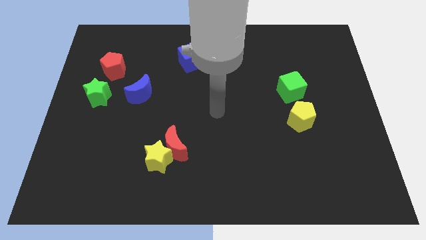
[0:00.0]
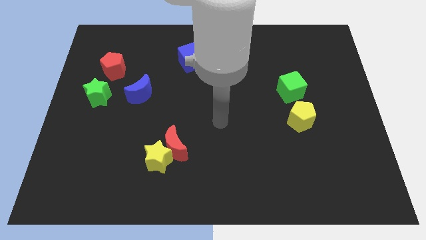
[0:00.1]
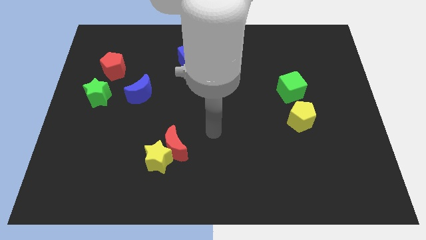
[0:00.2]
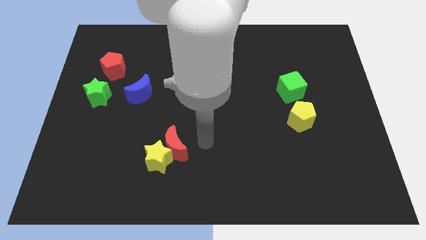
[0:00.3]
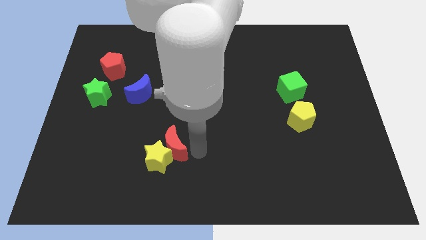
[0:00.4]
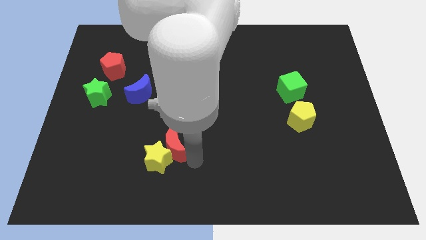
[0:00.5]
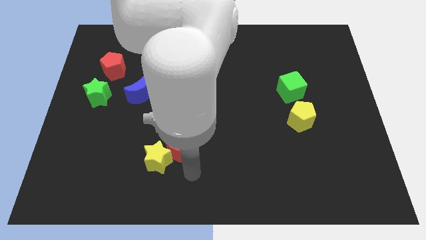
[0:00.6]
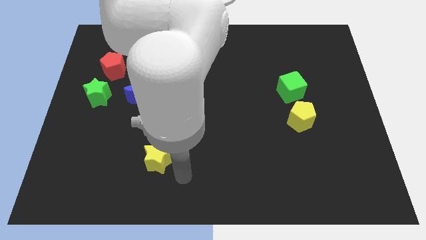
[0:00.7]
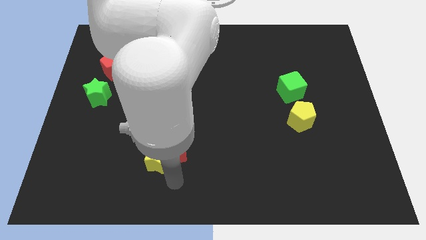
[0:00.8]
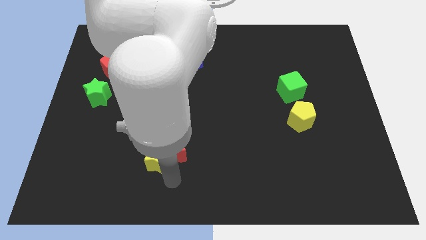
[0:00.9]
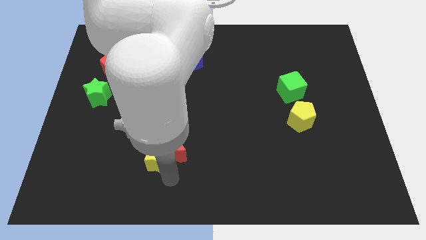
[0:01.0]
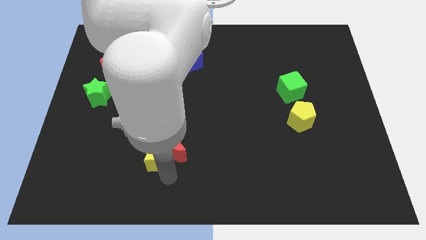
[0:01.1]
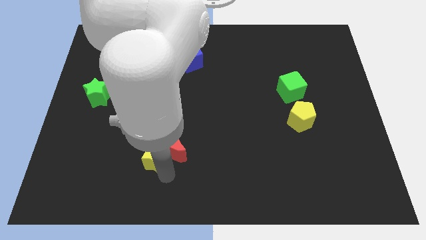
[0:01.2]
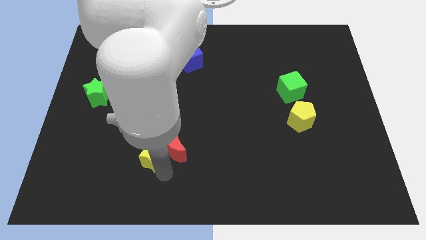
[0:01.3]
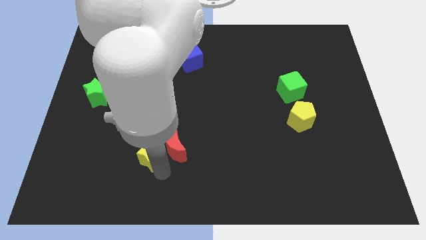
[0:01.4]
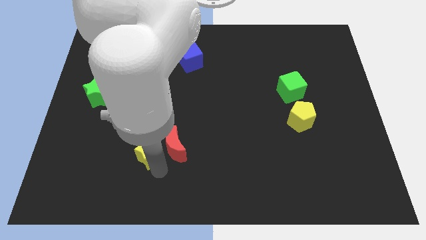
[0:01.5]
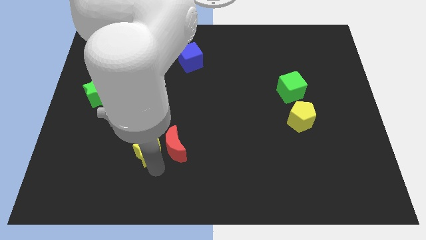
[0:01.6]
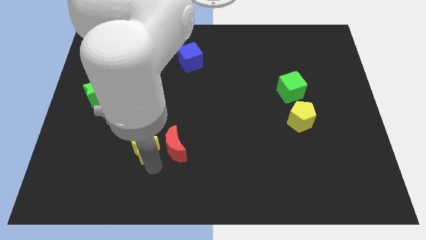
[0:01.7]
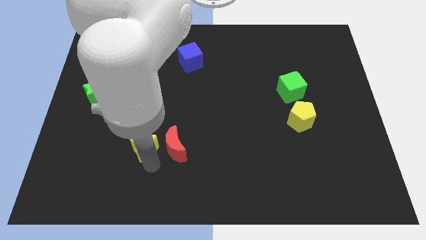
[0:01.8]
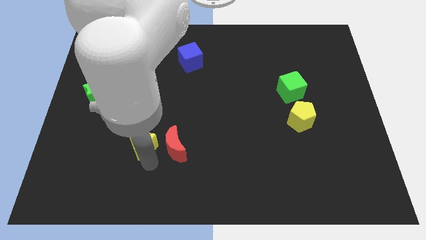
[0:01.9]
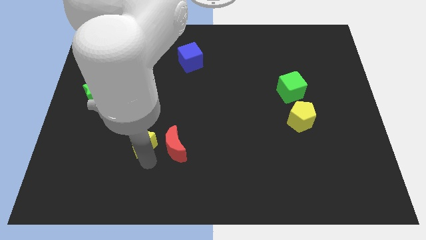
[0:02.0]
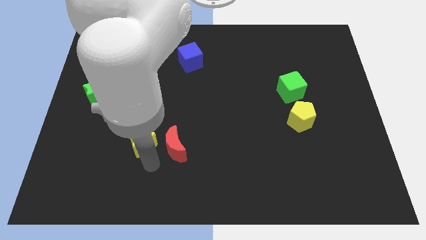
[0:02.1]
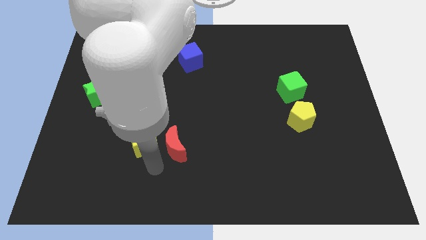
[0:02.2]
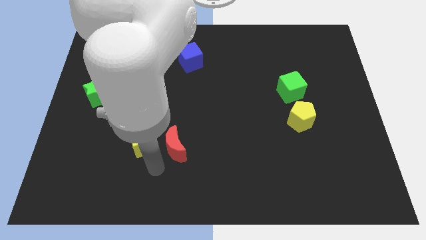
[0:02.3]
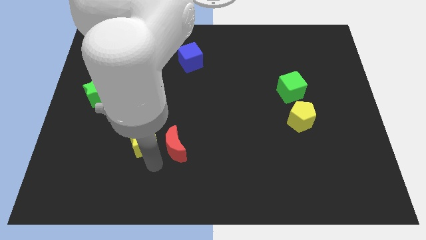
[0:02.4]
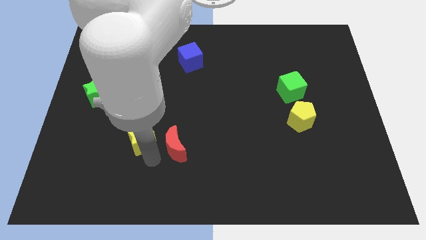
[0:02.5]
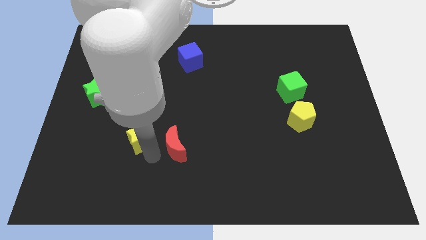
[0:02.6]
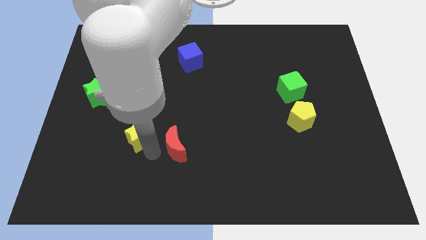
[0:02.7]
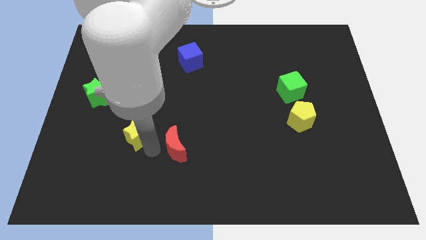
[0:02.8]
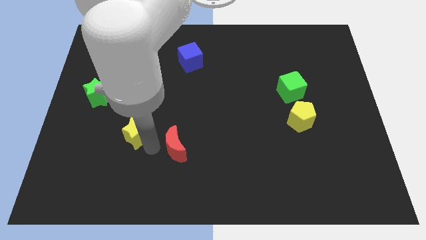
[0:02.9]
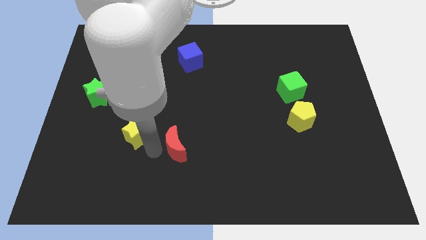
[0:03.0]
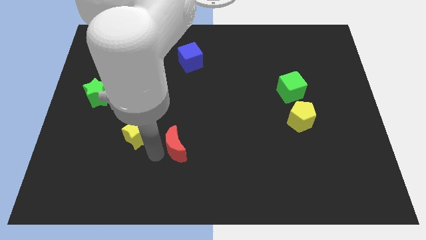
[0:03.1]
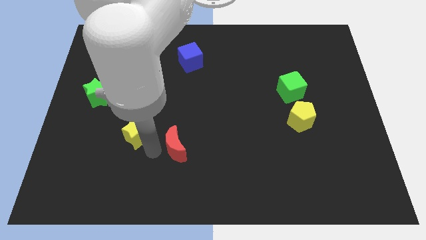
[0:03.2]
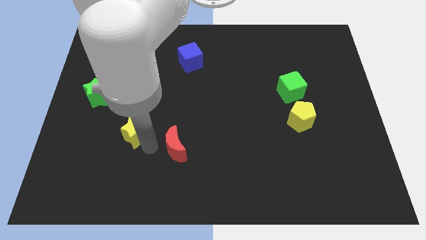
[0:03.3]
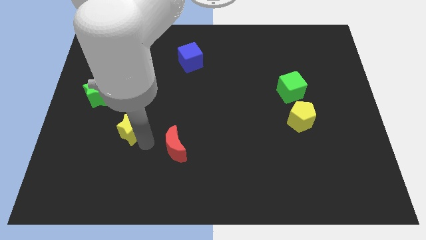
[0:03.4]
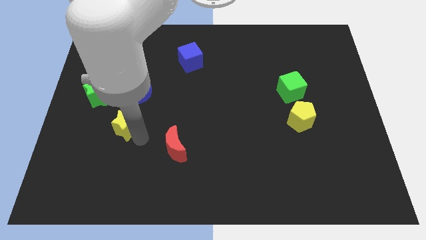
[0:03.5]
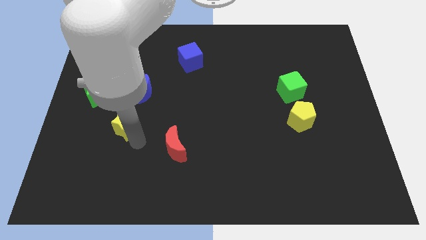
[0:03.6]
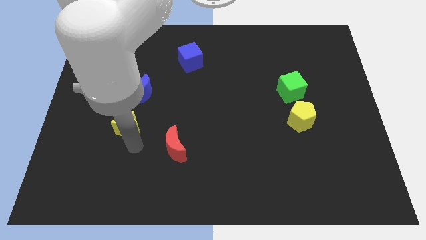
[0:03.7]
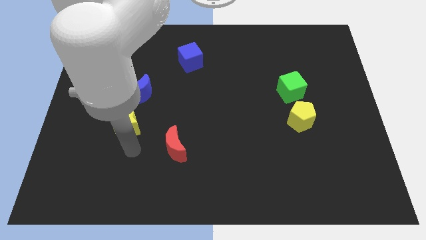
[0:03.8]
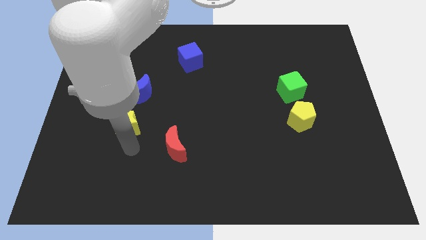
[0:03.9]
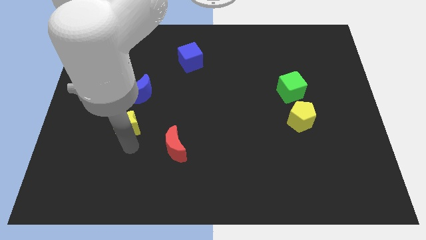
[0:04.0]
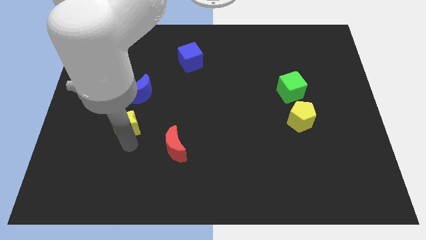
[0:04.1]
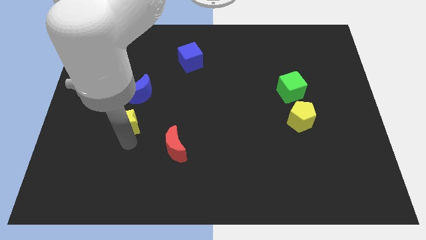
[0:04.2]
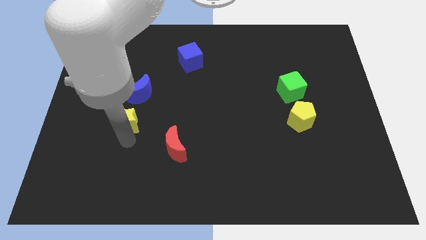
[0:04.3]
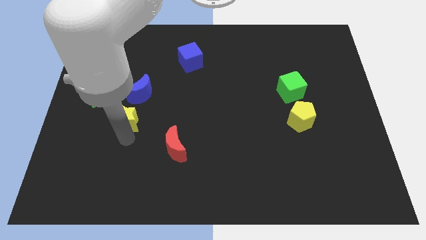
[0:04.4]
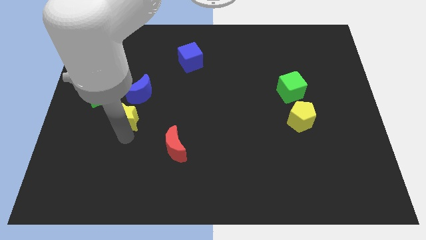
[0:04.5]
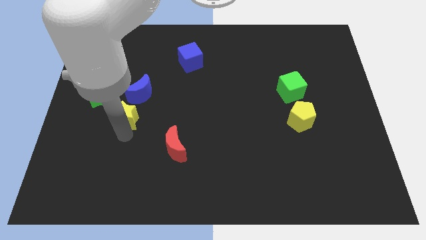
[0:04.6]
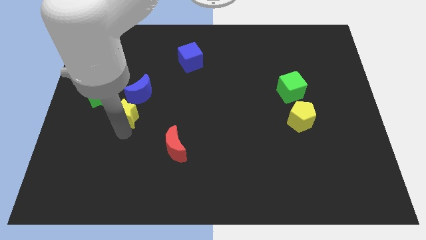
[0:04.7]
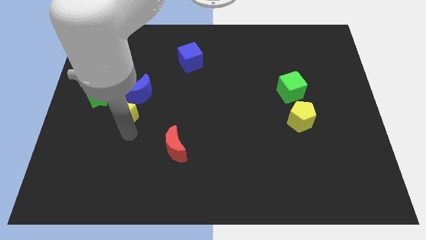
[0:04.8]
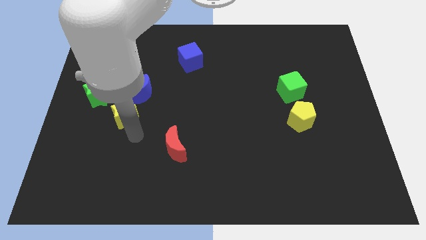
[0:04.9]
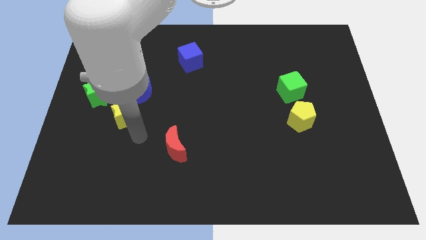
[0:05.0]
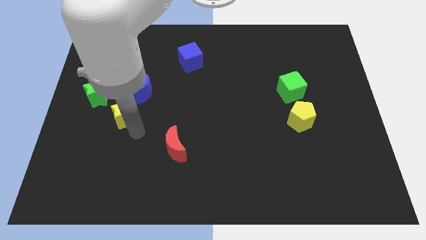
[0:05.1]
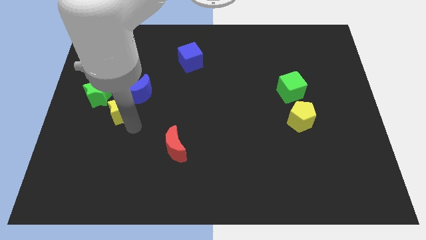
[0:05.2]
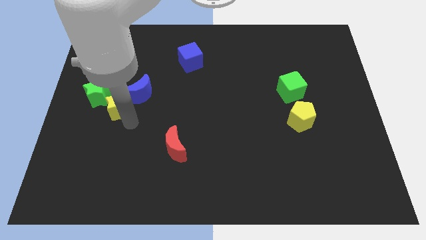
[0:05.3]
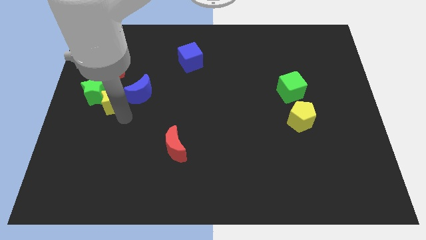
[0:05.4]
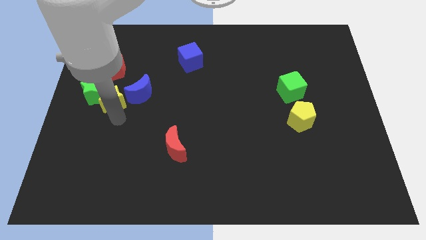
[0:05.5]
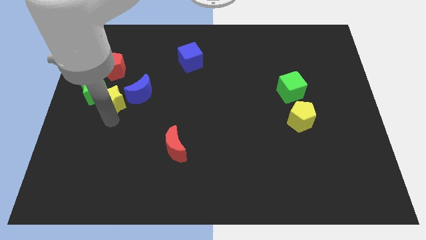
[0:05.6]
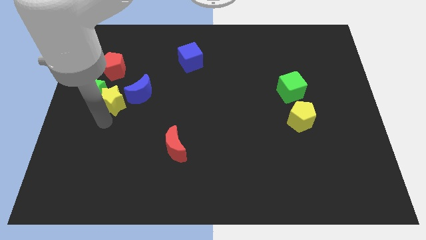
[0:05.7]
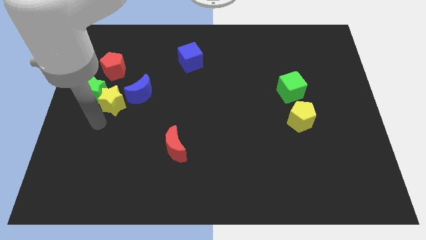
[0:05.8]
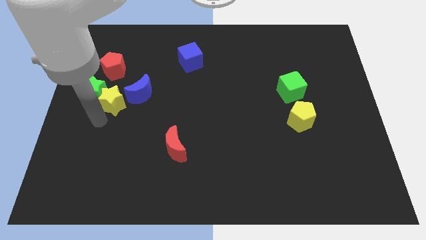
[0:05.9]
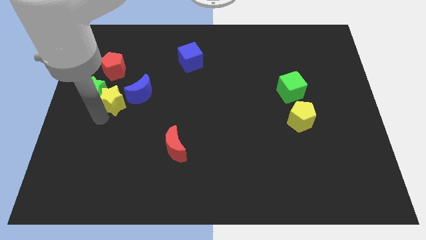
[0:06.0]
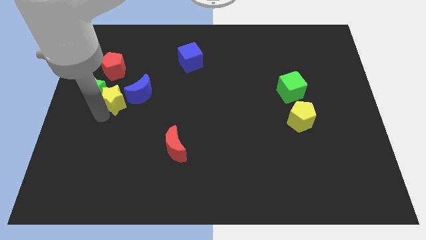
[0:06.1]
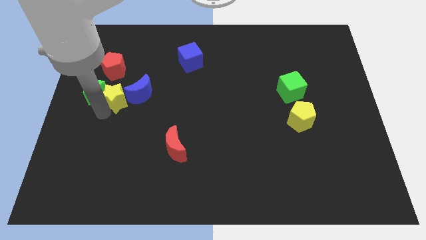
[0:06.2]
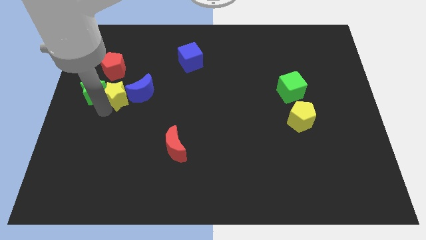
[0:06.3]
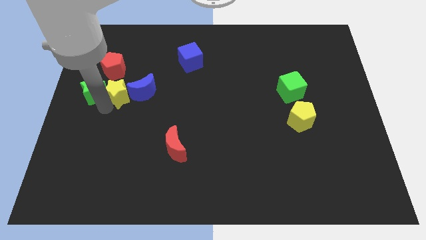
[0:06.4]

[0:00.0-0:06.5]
move the yellow star diagonally down and to the right of the red pentagon

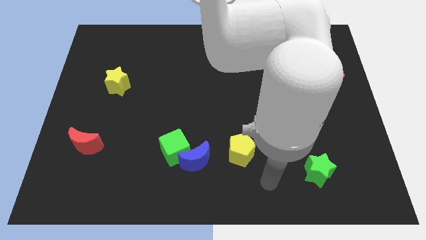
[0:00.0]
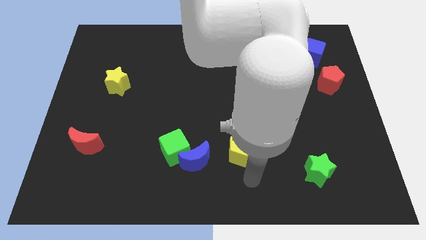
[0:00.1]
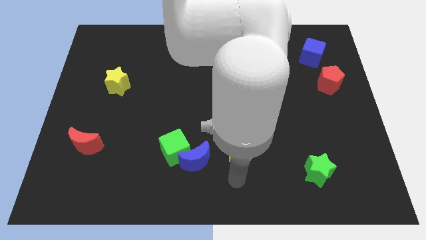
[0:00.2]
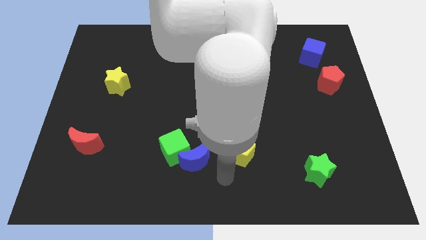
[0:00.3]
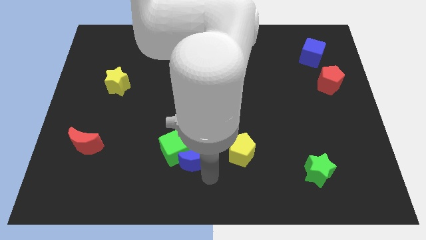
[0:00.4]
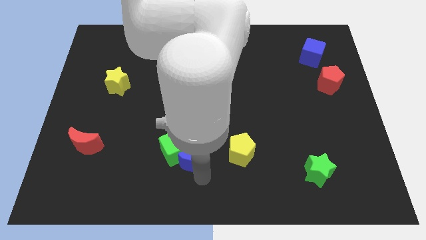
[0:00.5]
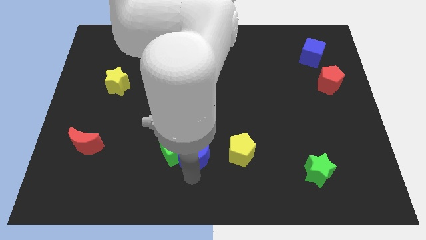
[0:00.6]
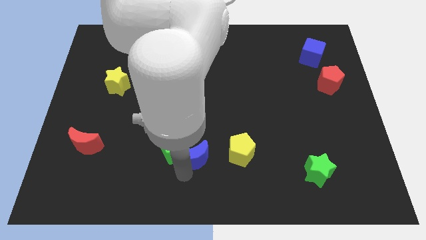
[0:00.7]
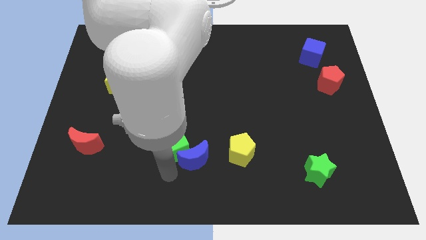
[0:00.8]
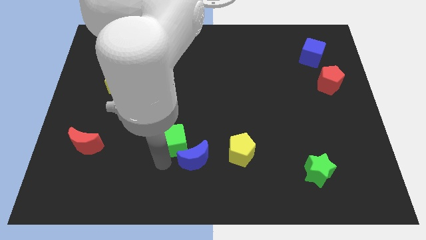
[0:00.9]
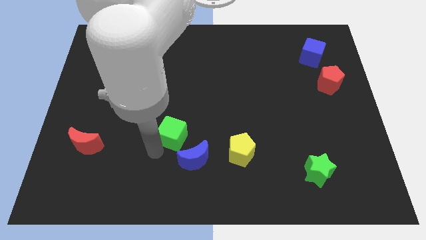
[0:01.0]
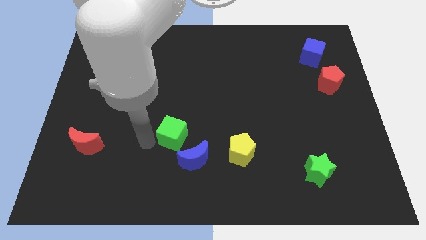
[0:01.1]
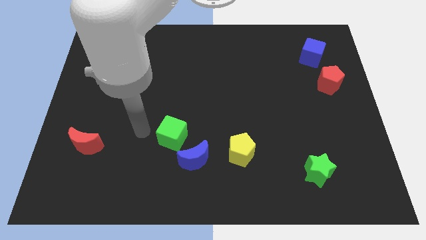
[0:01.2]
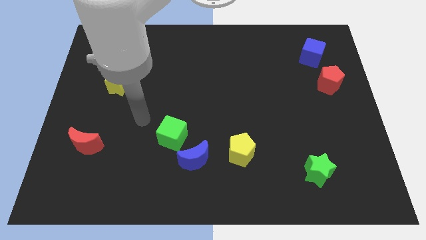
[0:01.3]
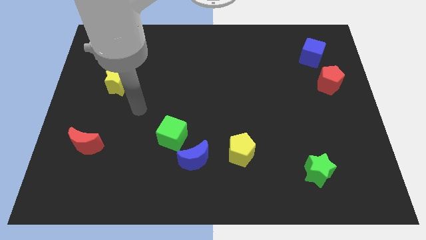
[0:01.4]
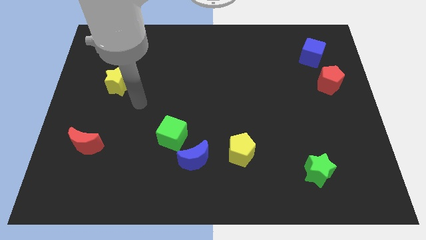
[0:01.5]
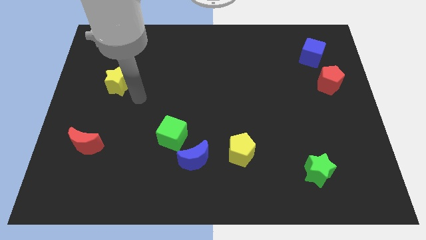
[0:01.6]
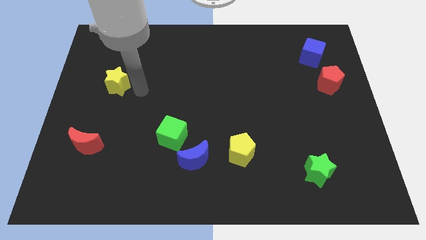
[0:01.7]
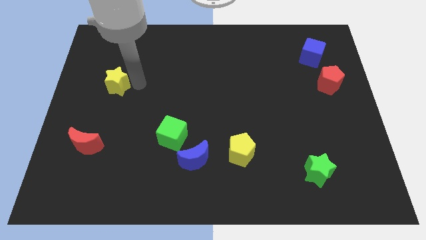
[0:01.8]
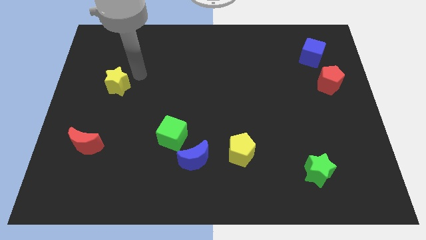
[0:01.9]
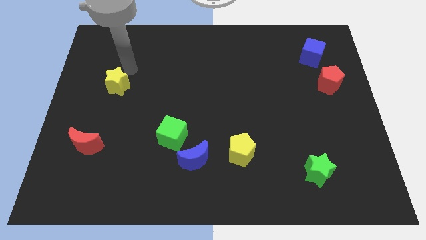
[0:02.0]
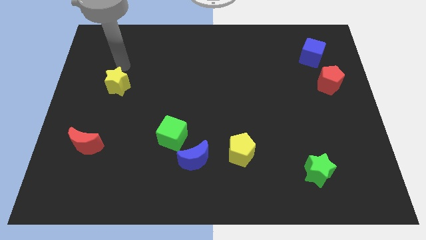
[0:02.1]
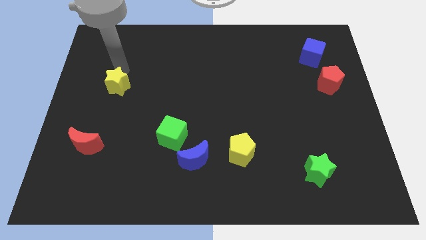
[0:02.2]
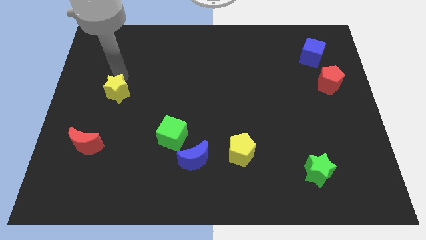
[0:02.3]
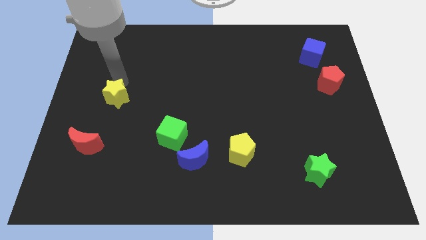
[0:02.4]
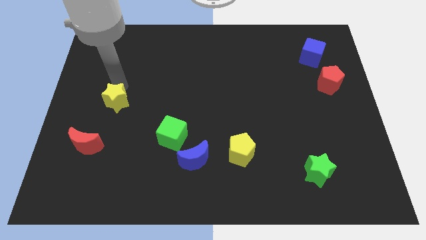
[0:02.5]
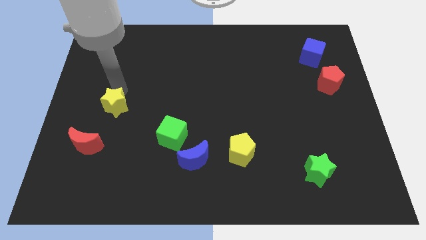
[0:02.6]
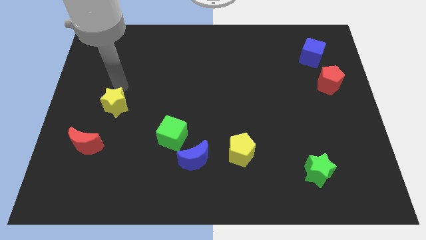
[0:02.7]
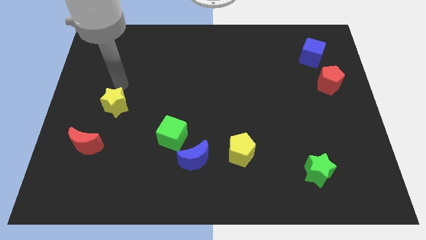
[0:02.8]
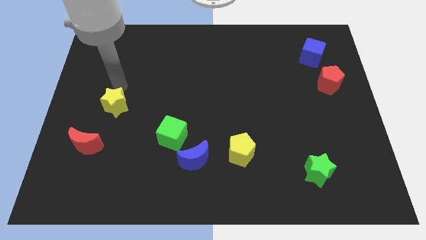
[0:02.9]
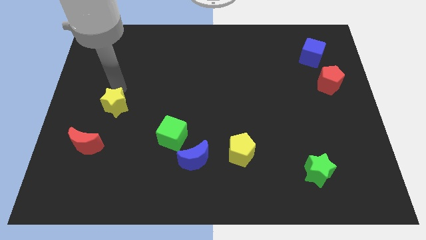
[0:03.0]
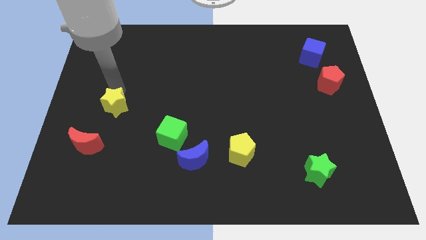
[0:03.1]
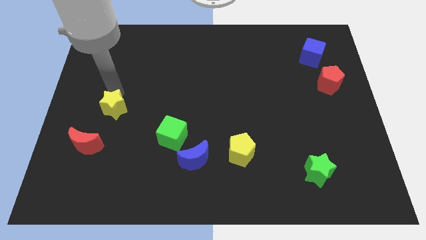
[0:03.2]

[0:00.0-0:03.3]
push the yellow star to the top right side of the red moon
